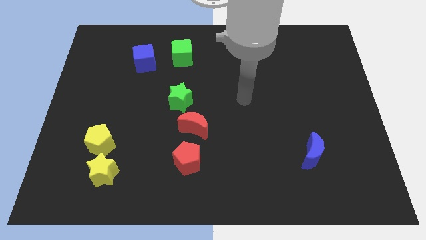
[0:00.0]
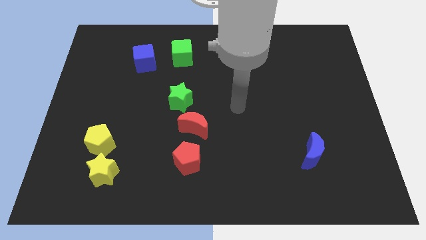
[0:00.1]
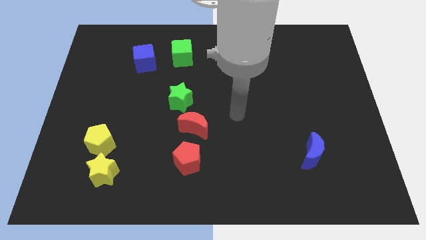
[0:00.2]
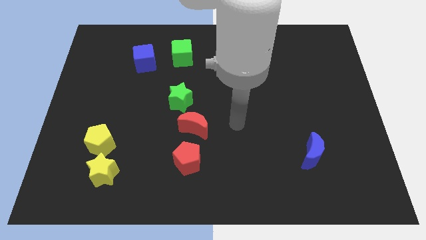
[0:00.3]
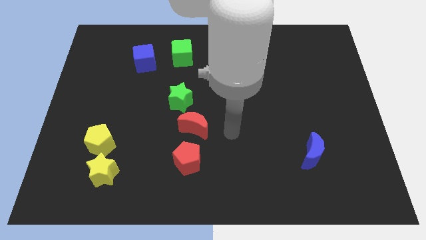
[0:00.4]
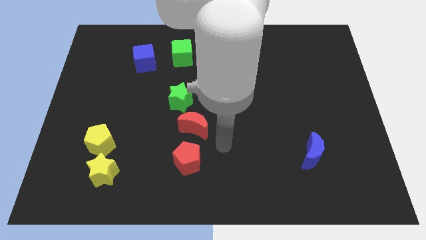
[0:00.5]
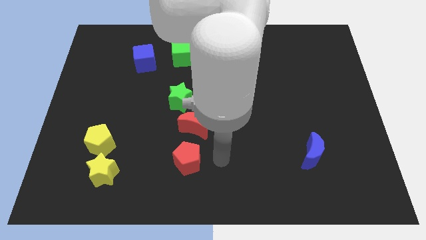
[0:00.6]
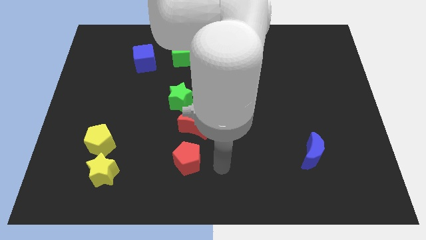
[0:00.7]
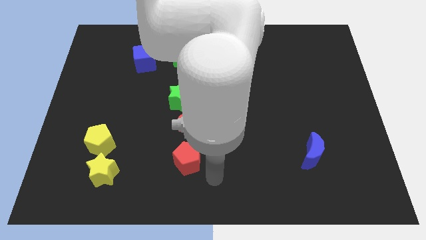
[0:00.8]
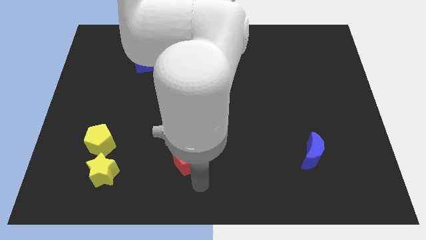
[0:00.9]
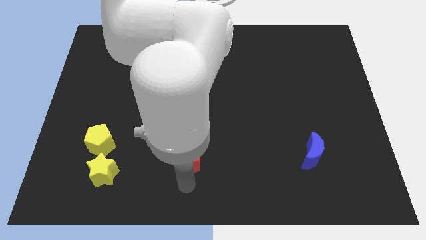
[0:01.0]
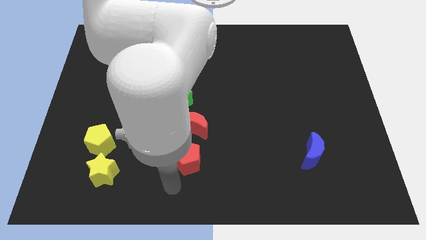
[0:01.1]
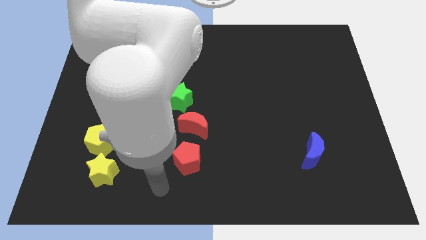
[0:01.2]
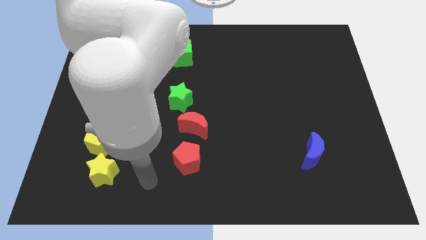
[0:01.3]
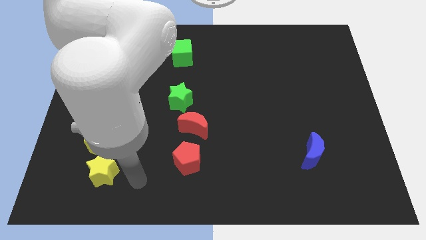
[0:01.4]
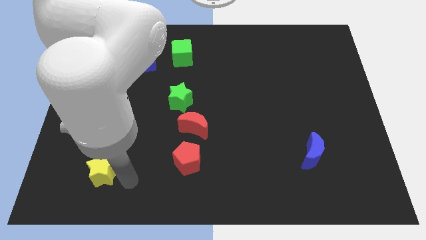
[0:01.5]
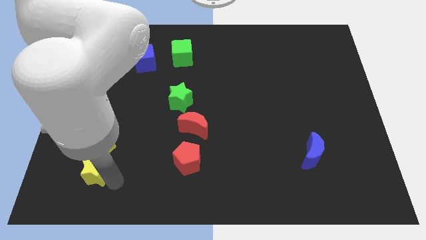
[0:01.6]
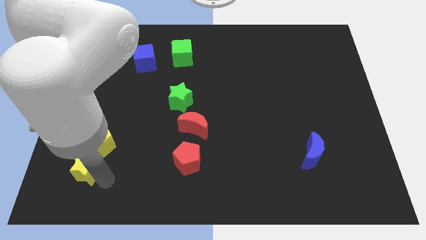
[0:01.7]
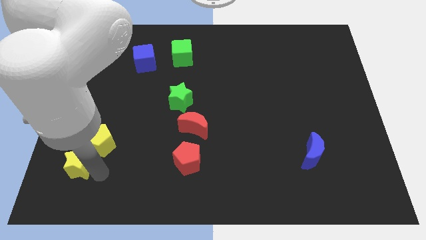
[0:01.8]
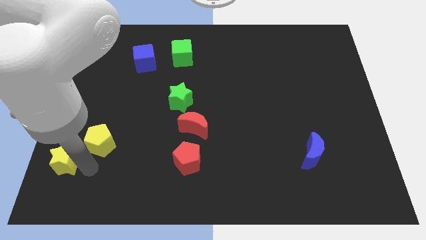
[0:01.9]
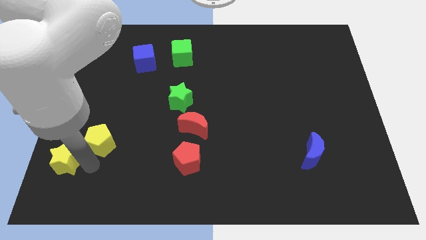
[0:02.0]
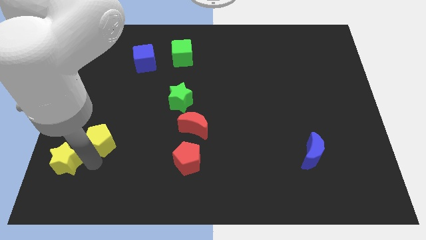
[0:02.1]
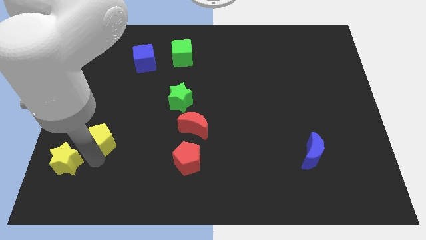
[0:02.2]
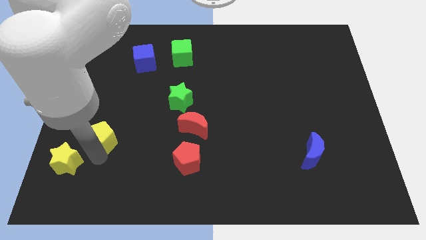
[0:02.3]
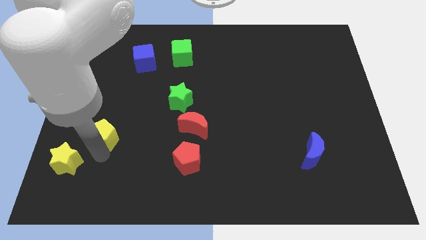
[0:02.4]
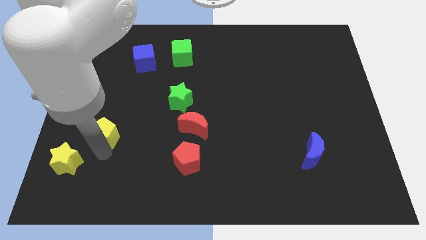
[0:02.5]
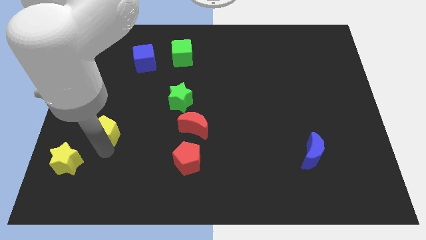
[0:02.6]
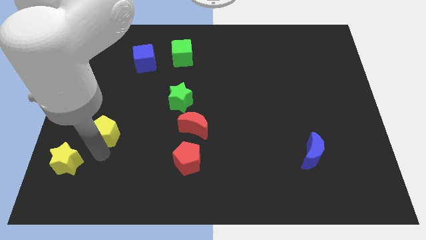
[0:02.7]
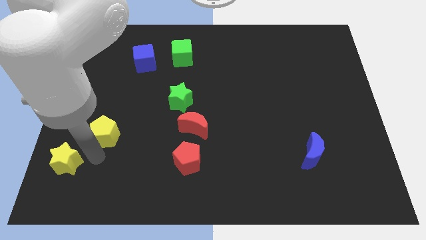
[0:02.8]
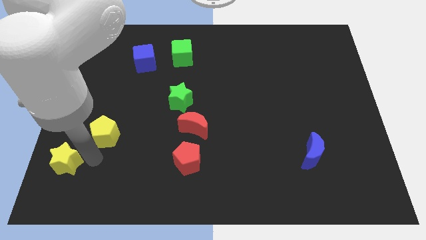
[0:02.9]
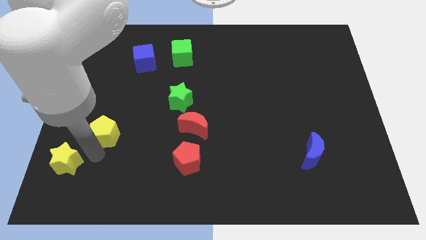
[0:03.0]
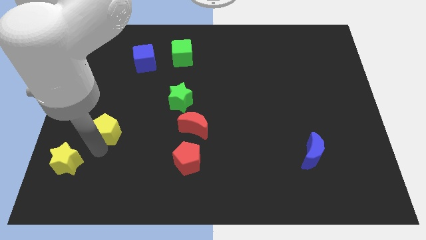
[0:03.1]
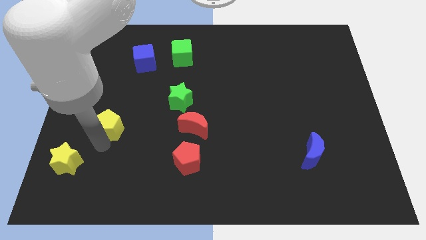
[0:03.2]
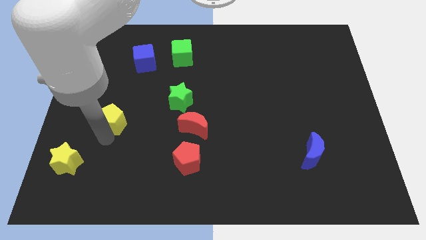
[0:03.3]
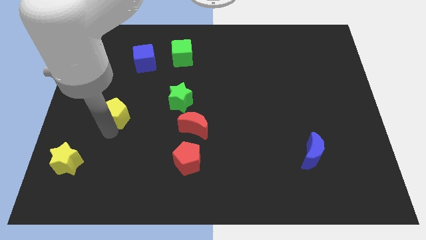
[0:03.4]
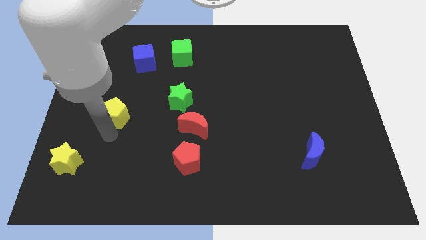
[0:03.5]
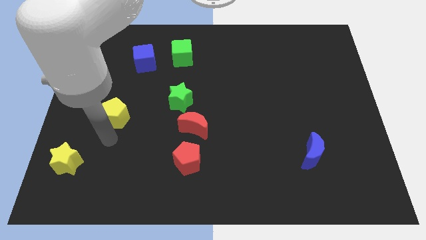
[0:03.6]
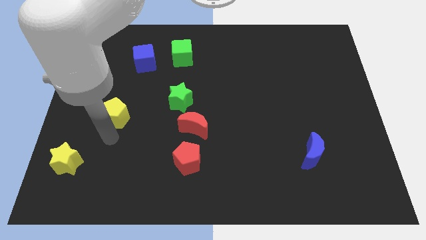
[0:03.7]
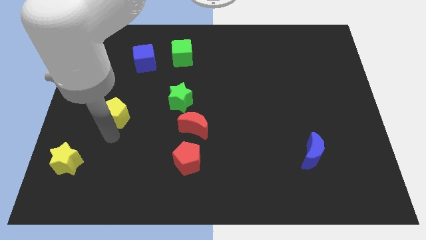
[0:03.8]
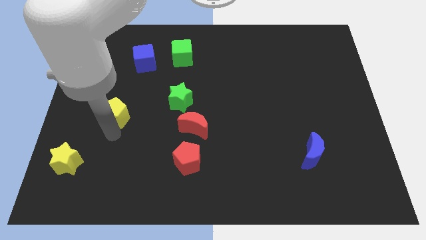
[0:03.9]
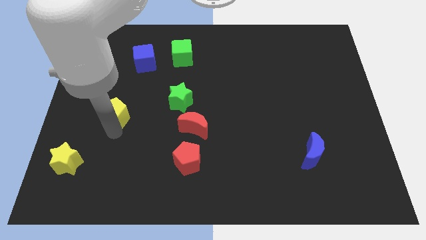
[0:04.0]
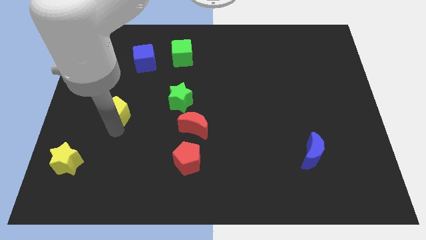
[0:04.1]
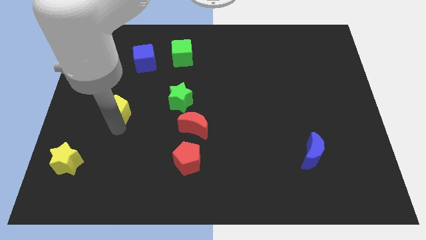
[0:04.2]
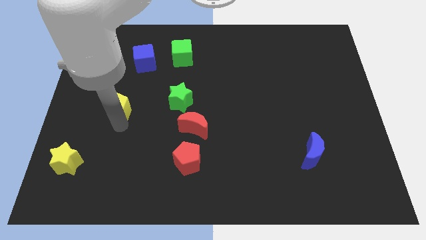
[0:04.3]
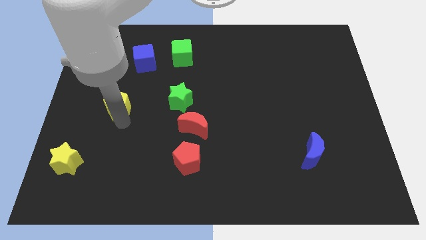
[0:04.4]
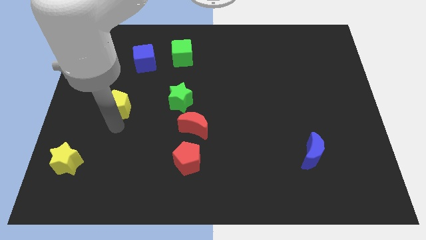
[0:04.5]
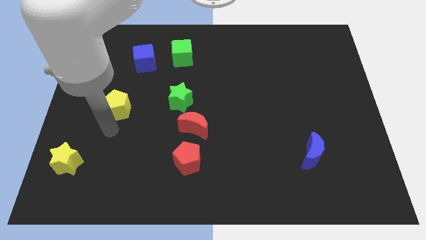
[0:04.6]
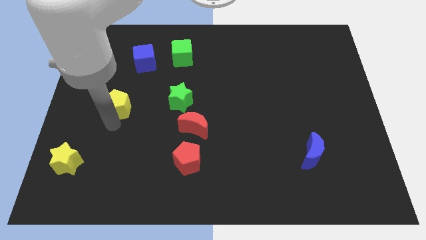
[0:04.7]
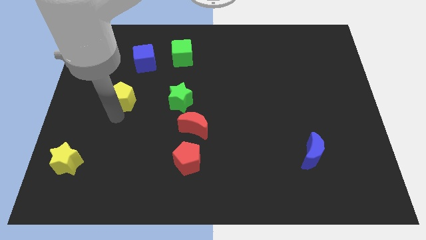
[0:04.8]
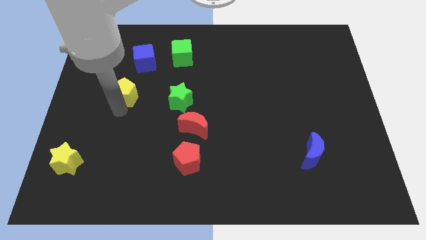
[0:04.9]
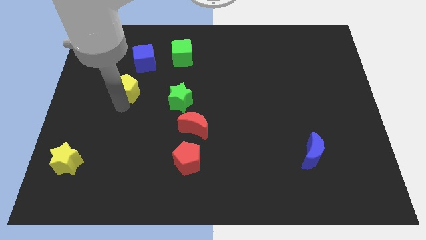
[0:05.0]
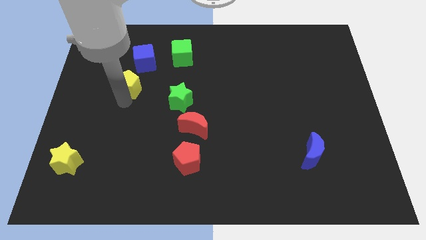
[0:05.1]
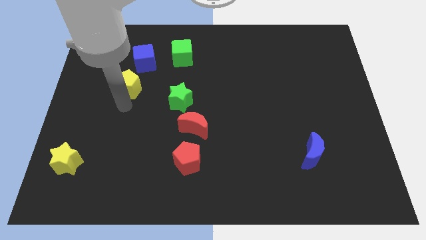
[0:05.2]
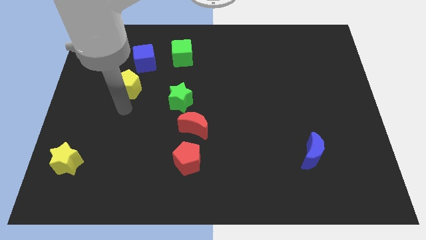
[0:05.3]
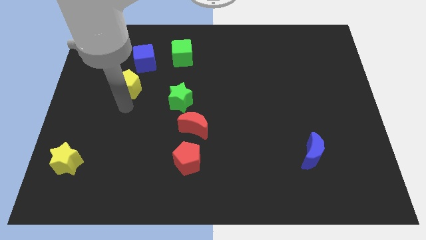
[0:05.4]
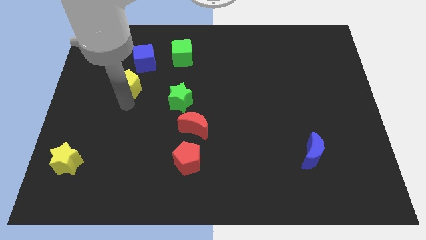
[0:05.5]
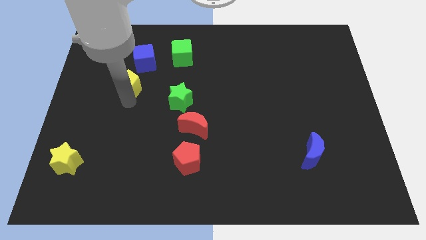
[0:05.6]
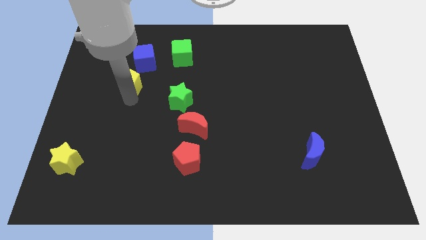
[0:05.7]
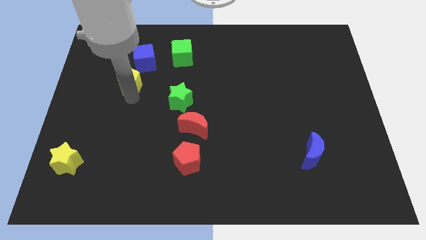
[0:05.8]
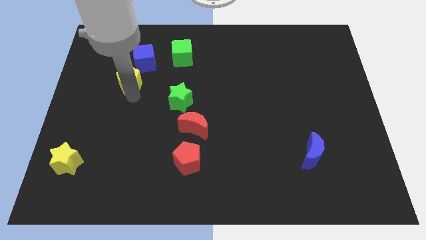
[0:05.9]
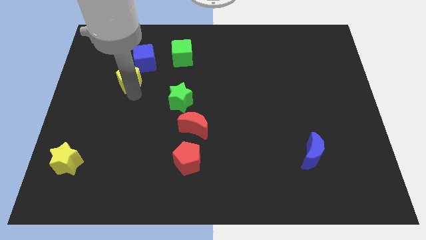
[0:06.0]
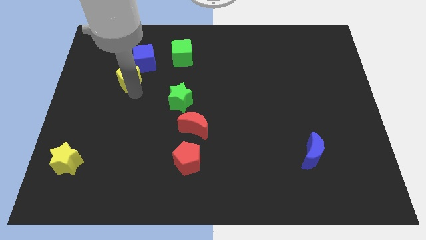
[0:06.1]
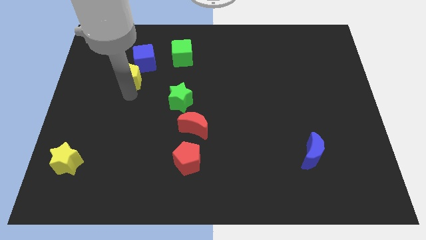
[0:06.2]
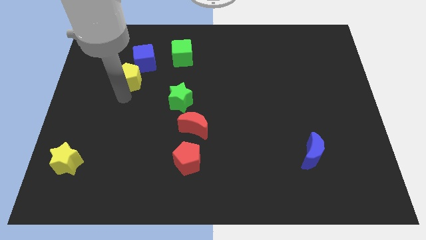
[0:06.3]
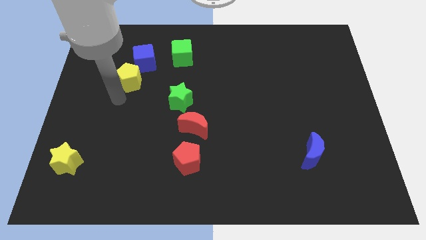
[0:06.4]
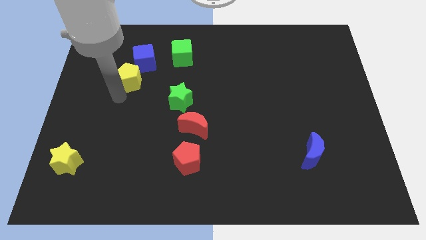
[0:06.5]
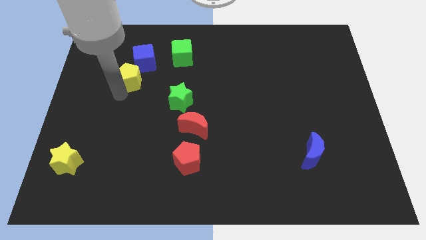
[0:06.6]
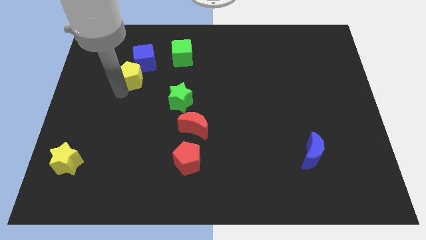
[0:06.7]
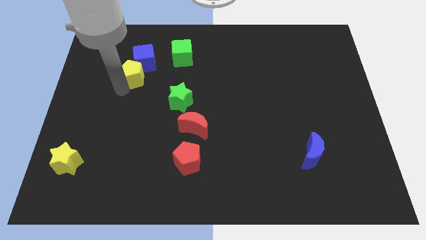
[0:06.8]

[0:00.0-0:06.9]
slide the yellow pentagon next to the blue cube
